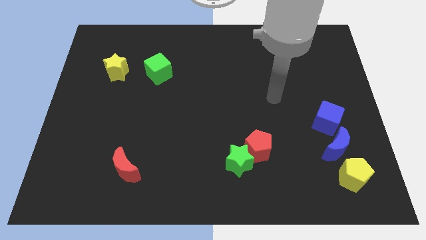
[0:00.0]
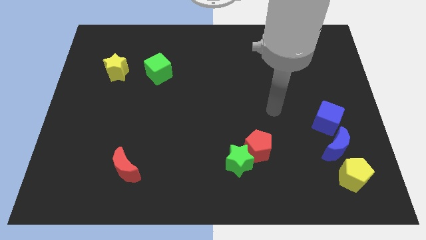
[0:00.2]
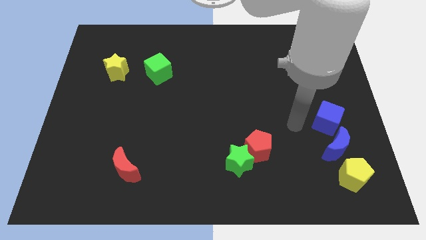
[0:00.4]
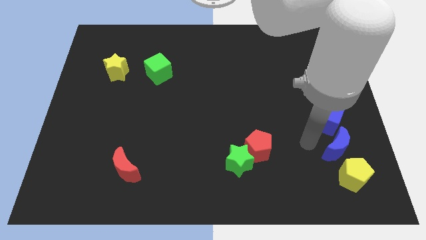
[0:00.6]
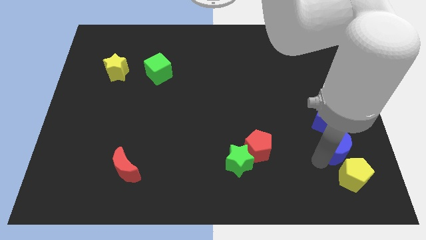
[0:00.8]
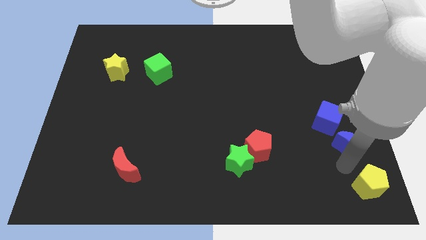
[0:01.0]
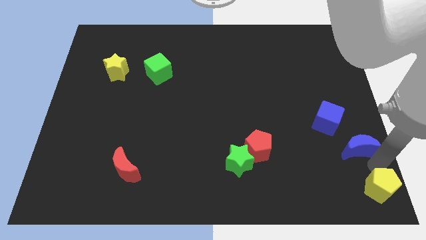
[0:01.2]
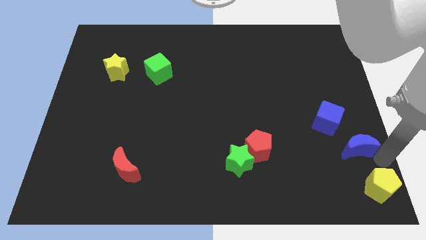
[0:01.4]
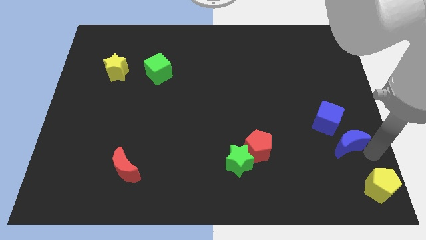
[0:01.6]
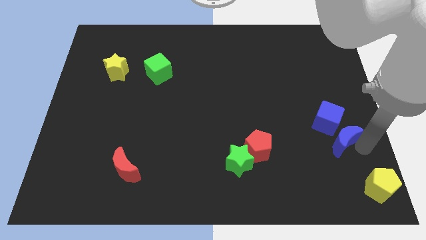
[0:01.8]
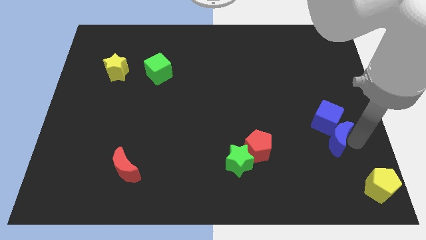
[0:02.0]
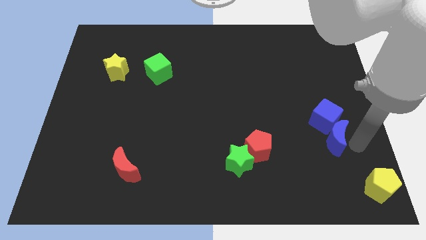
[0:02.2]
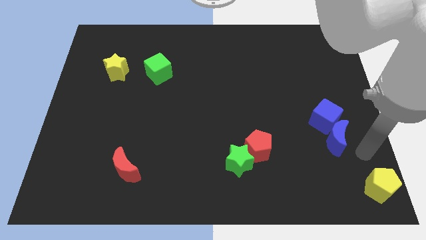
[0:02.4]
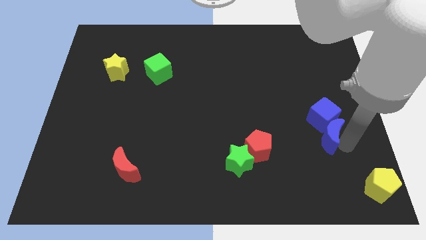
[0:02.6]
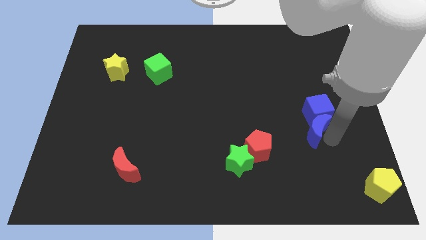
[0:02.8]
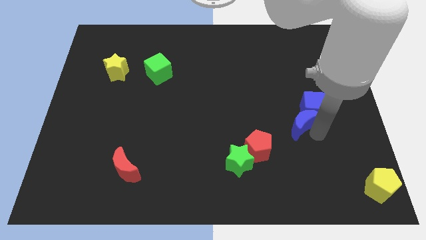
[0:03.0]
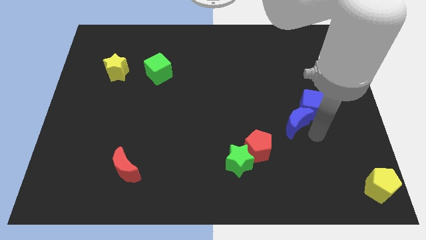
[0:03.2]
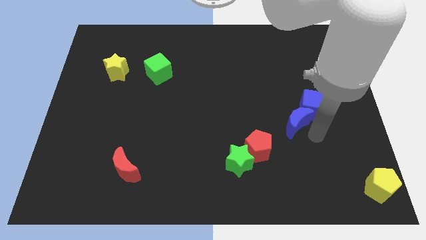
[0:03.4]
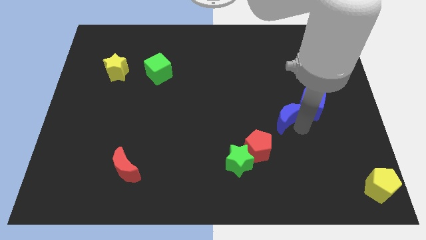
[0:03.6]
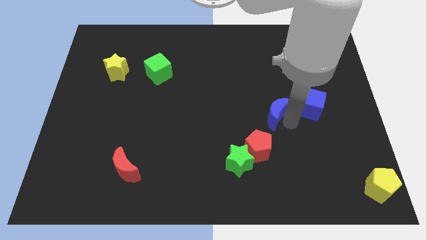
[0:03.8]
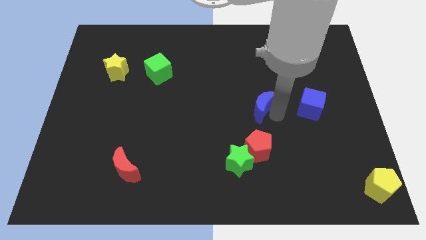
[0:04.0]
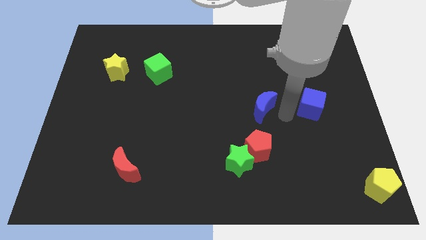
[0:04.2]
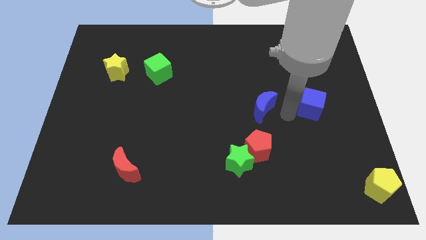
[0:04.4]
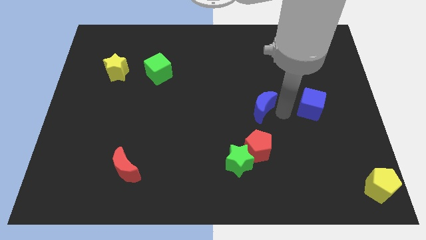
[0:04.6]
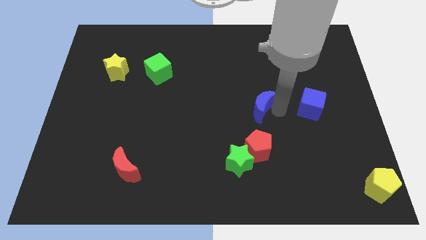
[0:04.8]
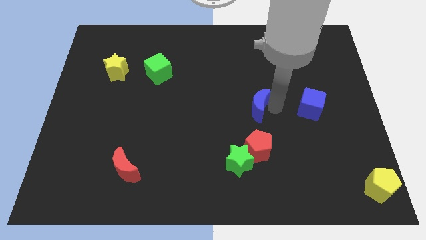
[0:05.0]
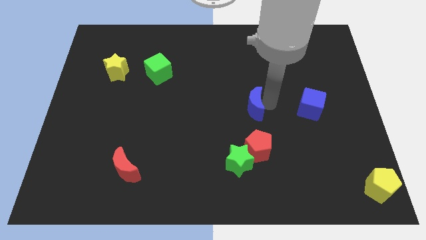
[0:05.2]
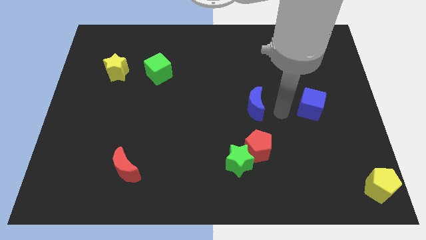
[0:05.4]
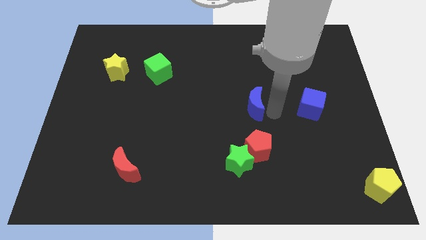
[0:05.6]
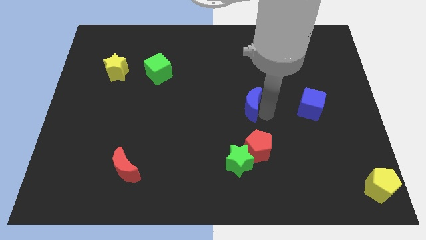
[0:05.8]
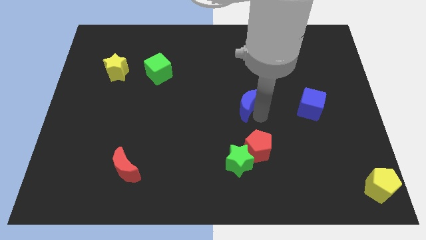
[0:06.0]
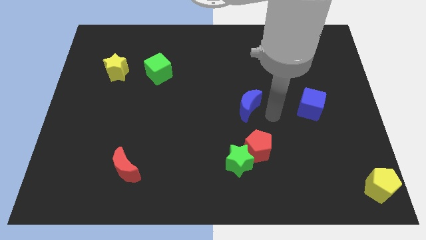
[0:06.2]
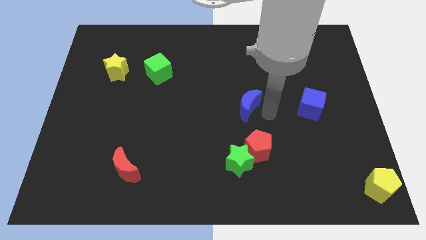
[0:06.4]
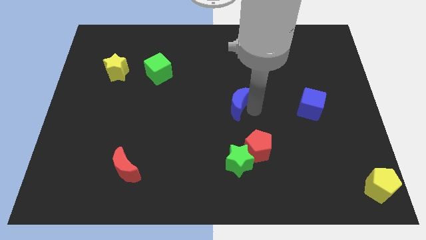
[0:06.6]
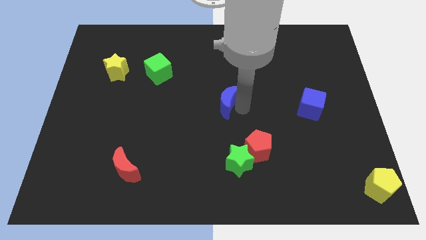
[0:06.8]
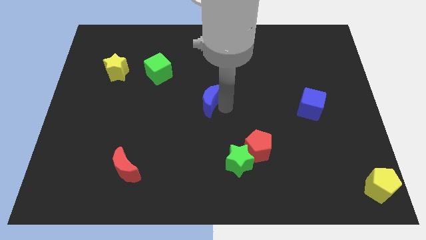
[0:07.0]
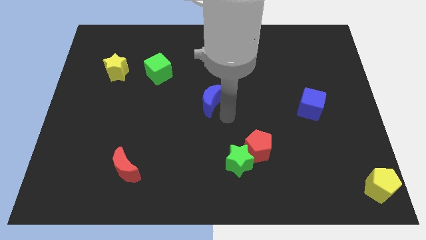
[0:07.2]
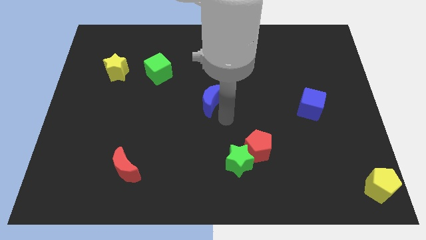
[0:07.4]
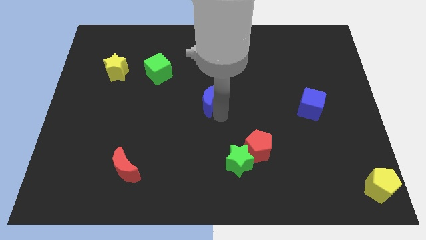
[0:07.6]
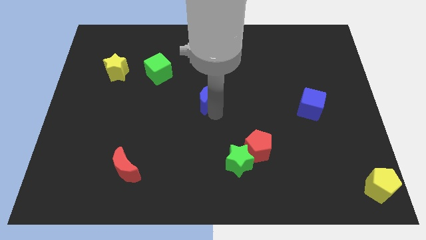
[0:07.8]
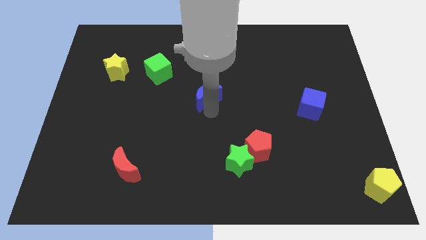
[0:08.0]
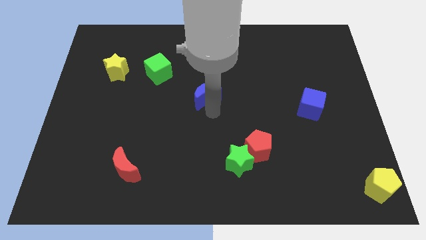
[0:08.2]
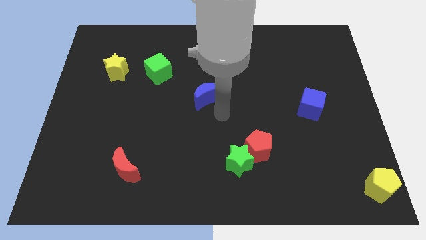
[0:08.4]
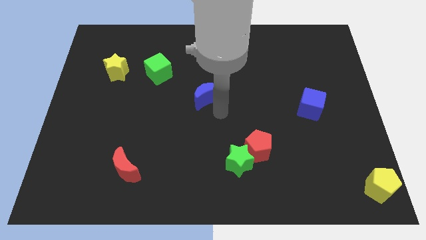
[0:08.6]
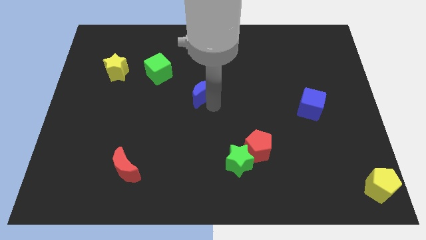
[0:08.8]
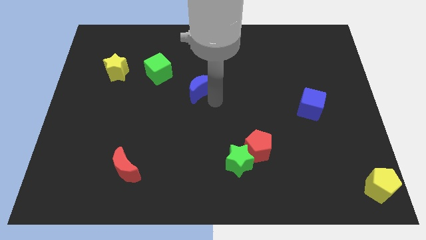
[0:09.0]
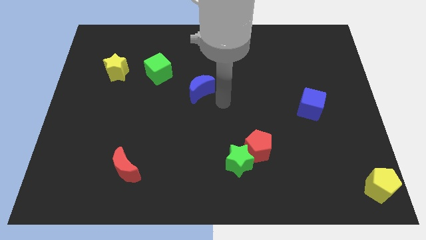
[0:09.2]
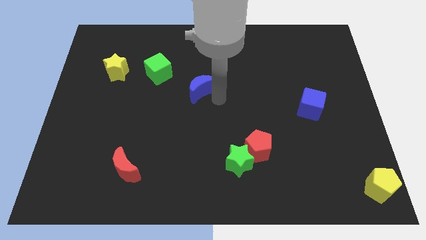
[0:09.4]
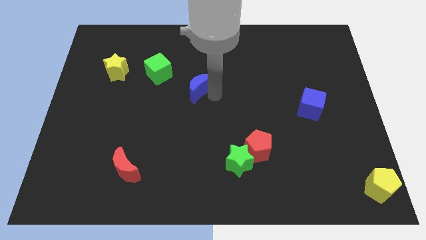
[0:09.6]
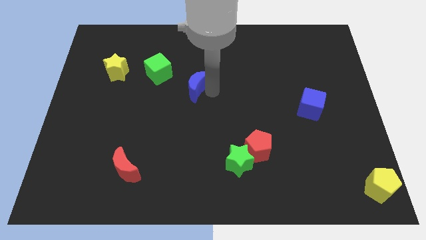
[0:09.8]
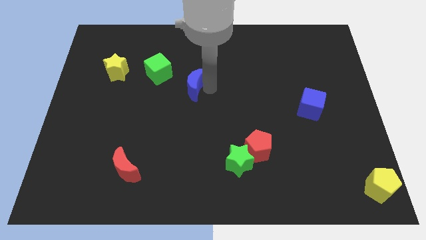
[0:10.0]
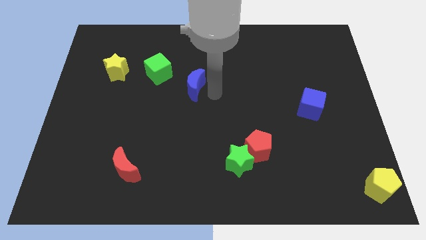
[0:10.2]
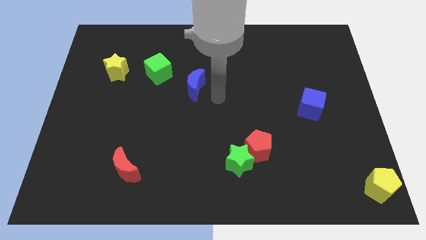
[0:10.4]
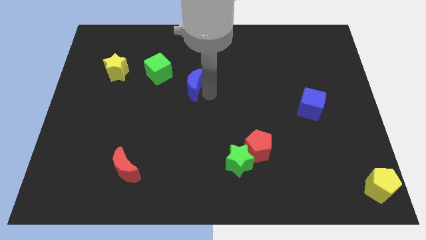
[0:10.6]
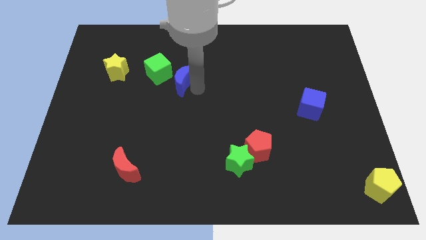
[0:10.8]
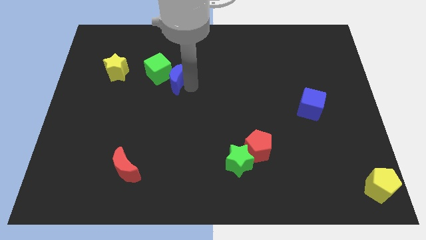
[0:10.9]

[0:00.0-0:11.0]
slide the blue moon close to the green cube

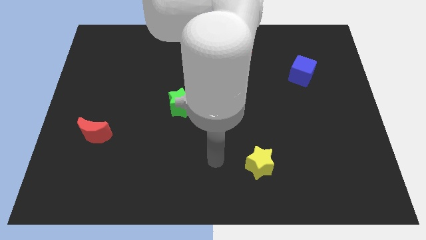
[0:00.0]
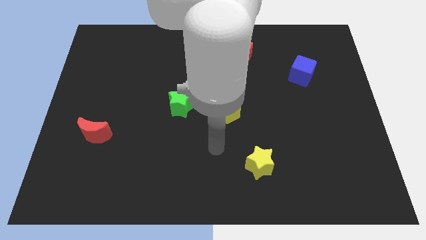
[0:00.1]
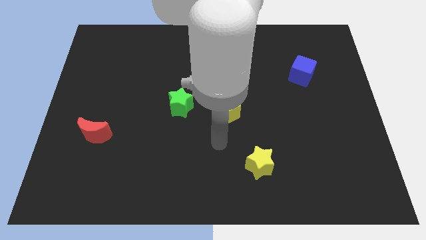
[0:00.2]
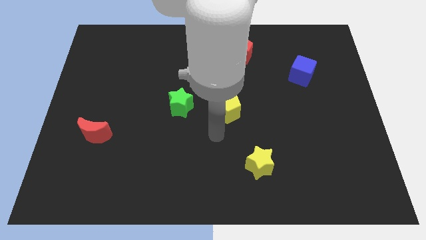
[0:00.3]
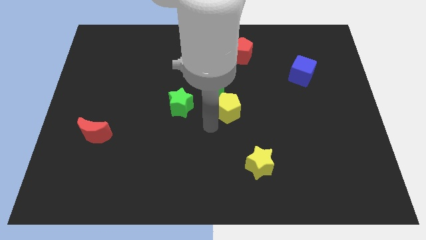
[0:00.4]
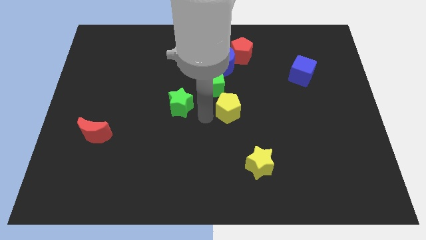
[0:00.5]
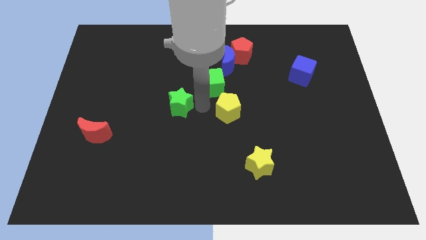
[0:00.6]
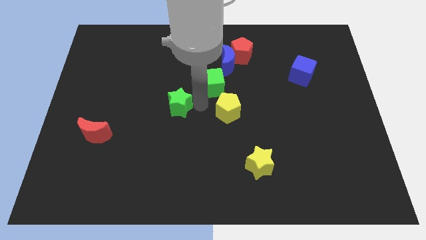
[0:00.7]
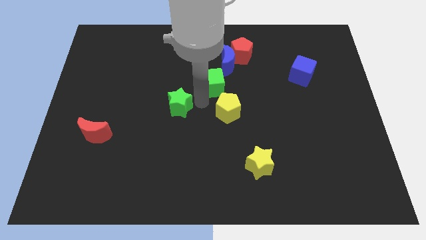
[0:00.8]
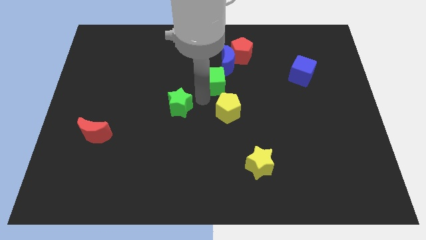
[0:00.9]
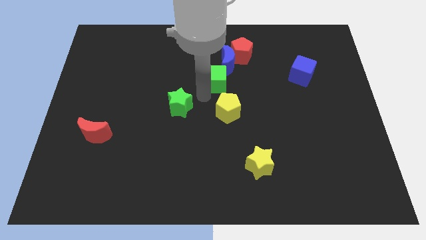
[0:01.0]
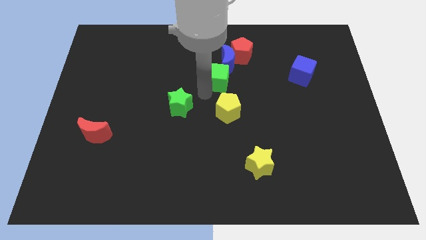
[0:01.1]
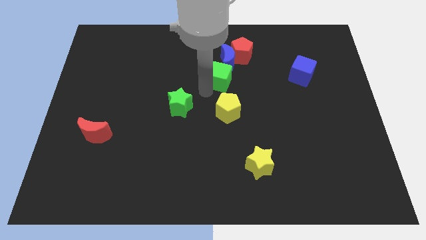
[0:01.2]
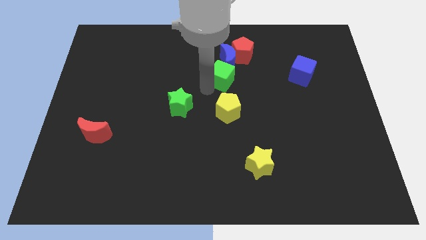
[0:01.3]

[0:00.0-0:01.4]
slide the green cube to the blue moon

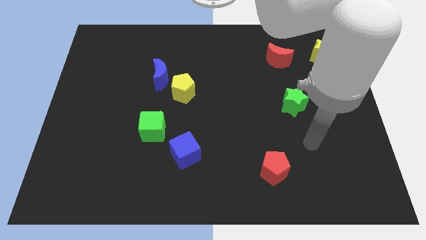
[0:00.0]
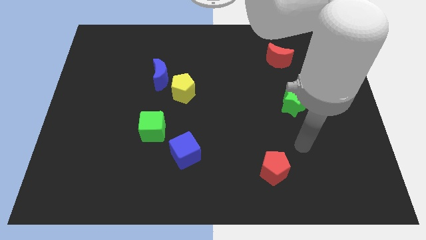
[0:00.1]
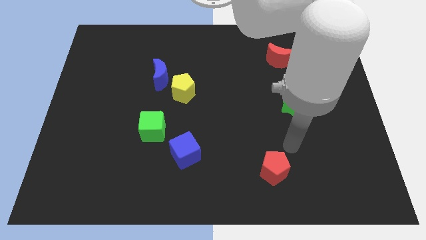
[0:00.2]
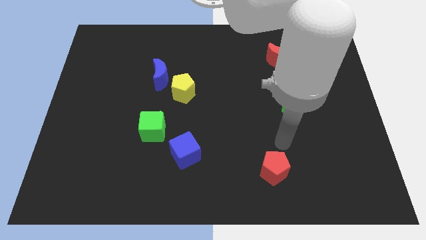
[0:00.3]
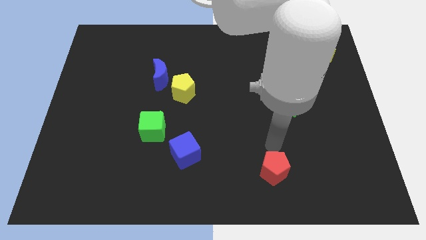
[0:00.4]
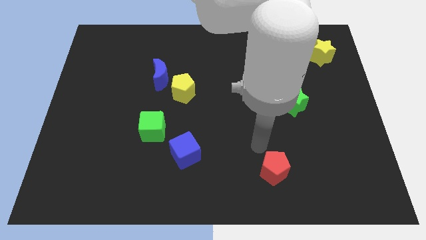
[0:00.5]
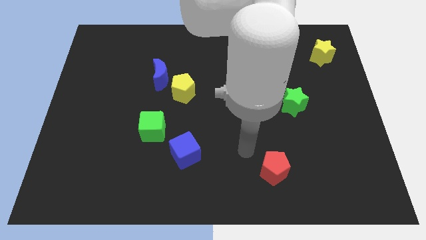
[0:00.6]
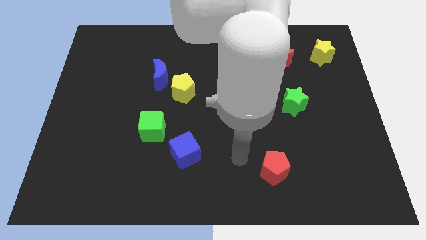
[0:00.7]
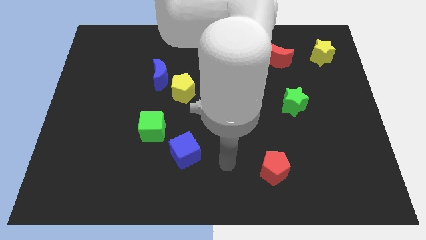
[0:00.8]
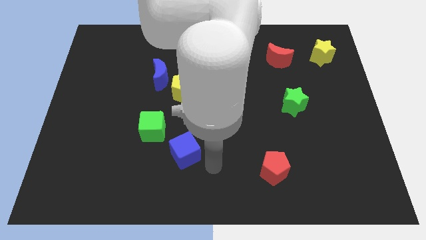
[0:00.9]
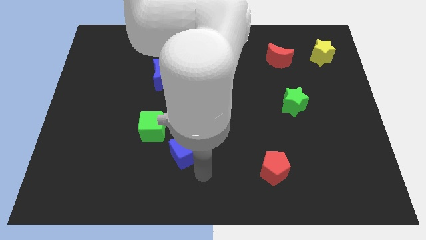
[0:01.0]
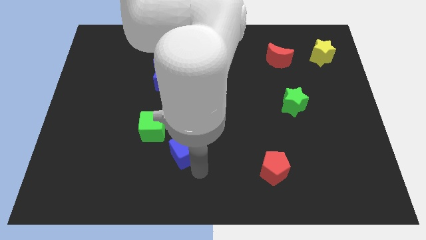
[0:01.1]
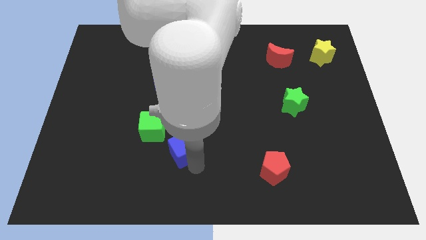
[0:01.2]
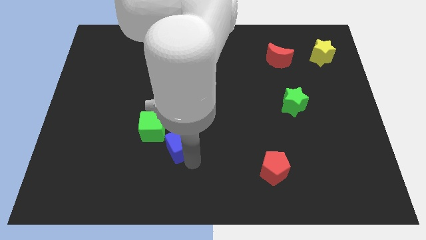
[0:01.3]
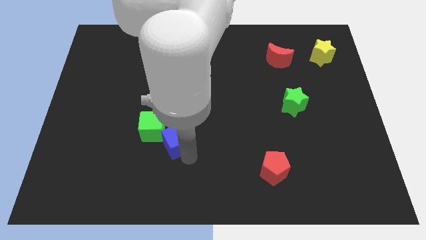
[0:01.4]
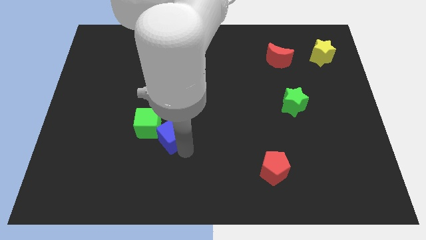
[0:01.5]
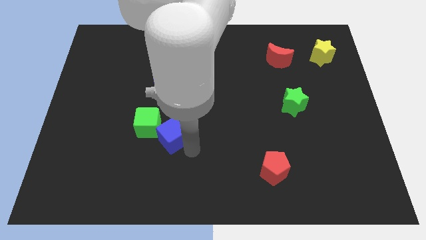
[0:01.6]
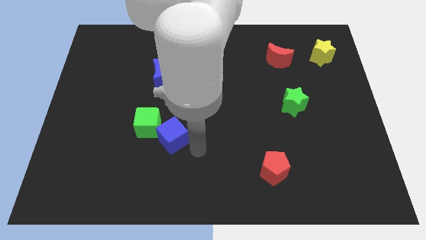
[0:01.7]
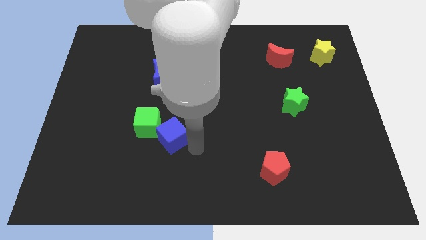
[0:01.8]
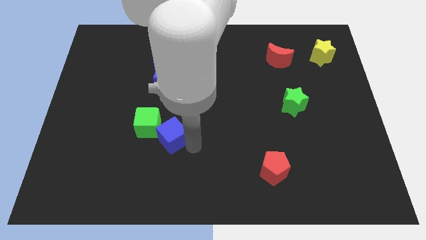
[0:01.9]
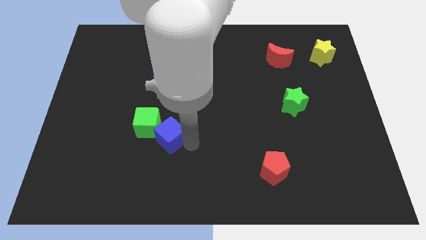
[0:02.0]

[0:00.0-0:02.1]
put the blue cube next to the green cube
